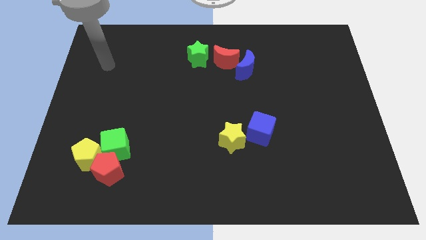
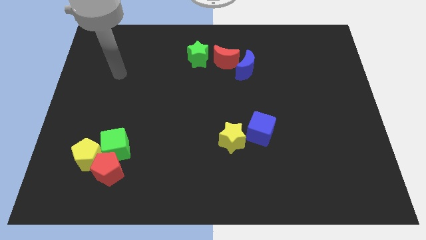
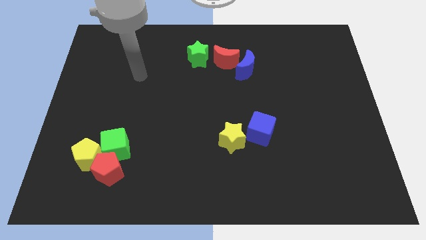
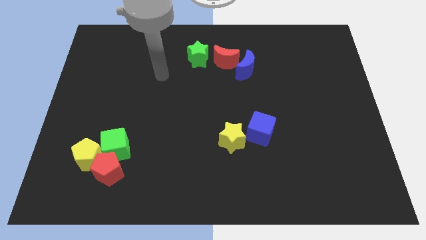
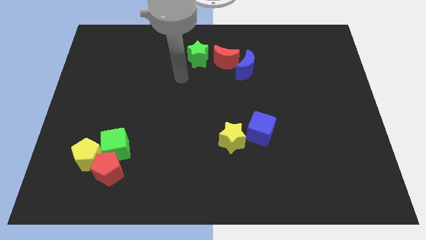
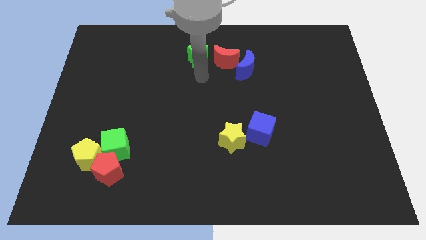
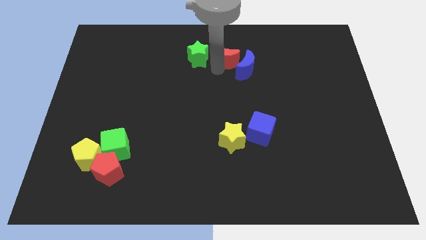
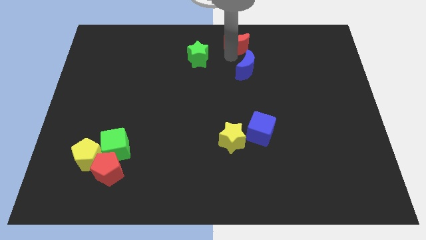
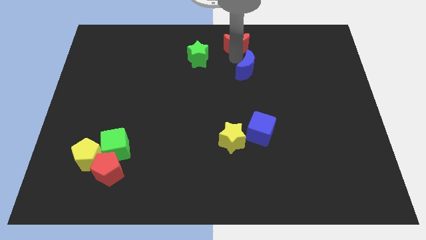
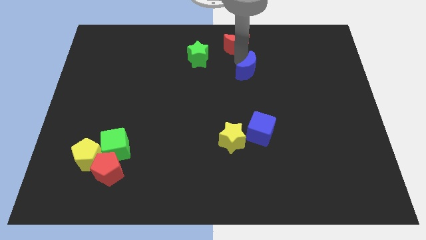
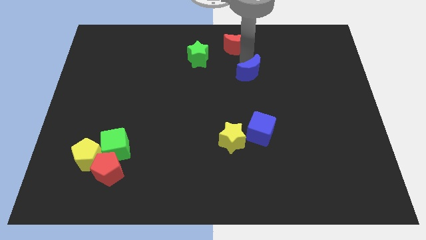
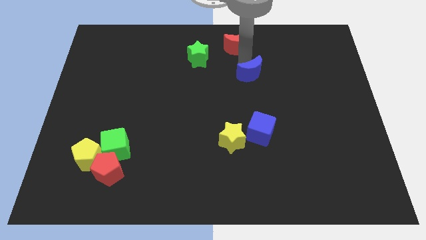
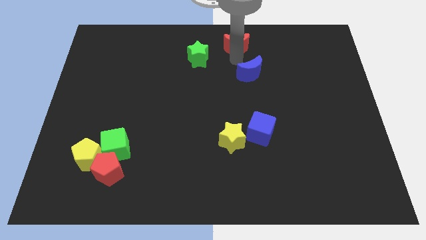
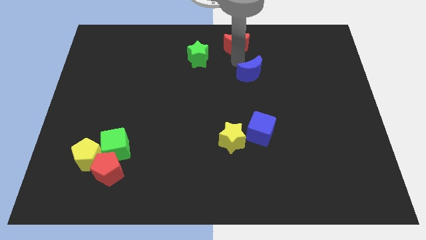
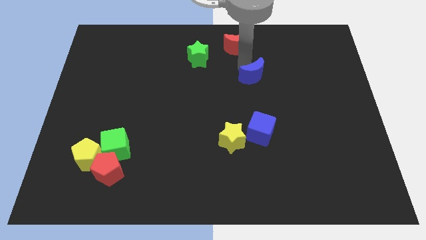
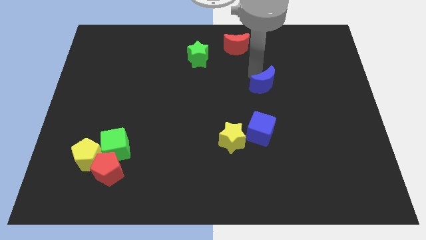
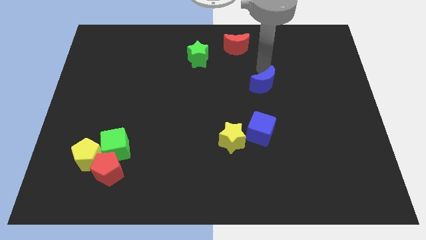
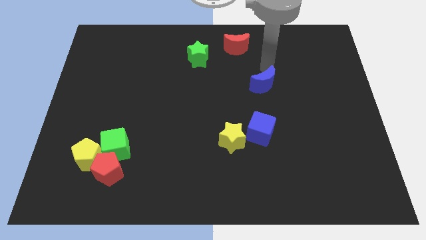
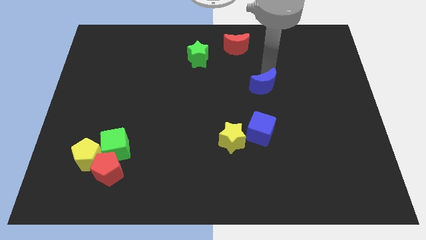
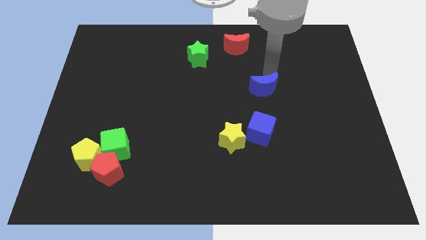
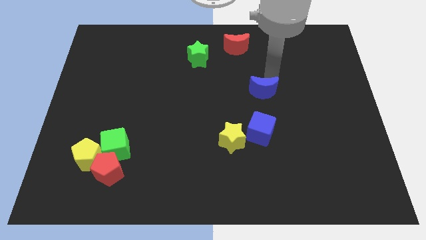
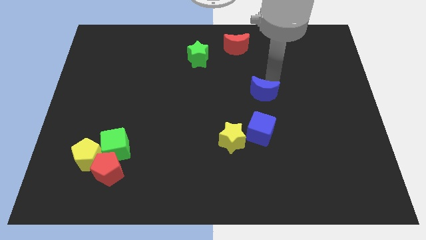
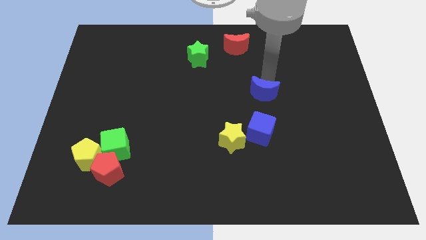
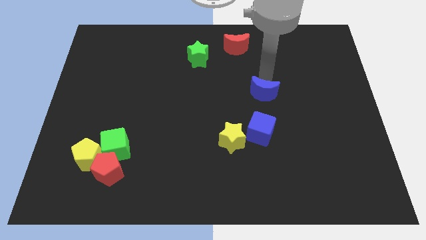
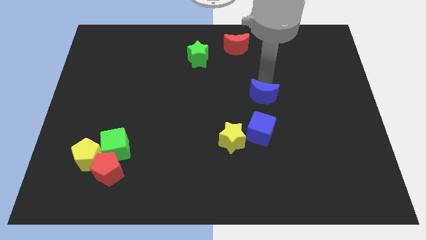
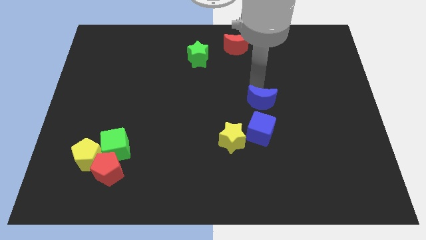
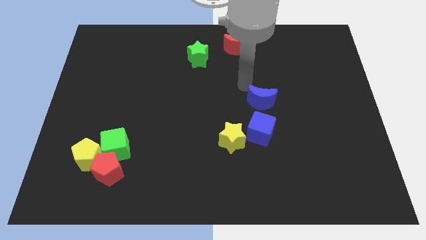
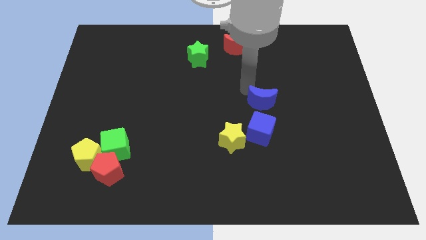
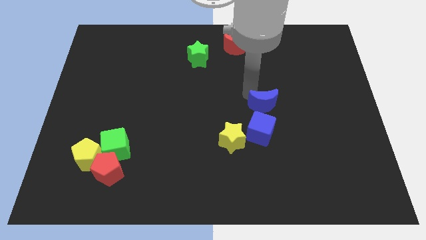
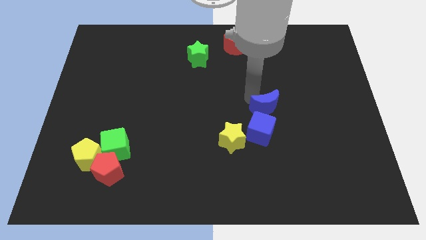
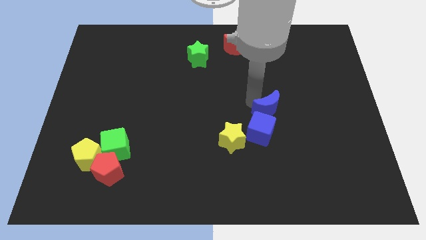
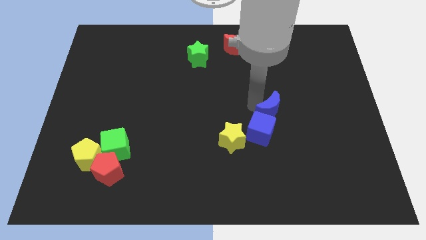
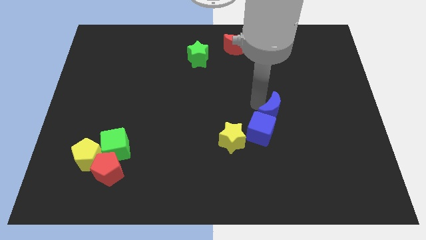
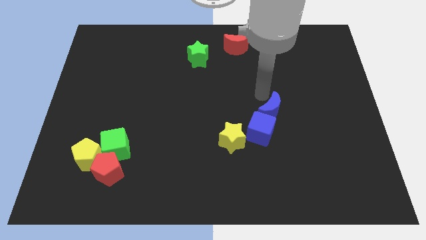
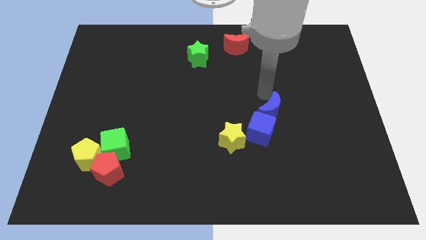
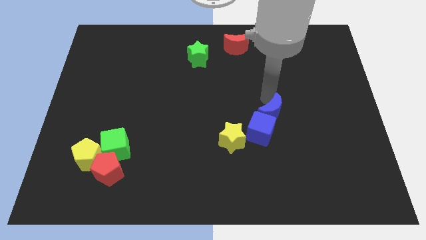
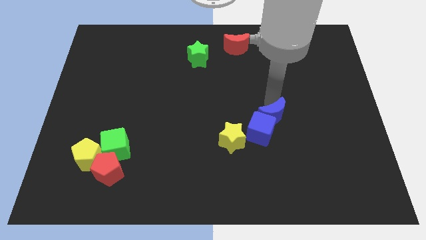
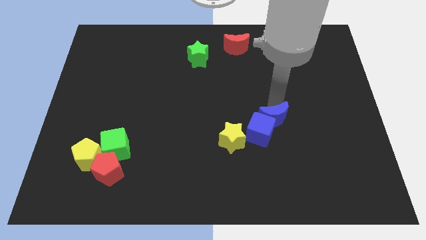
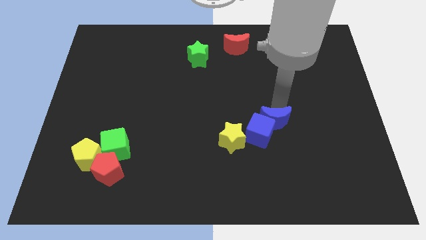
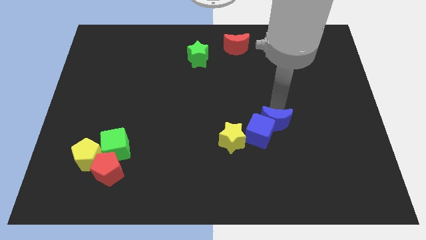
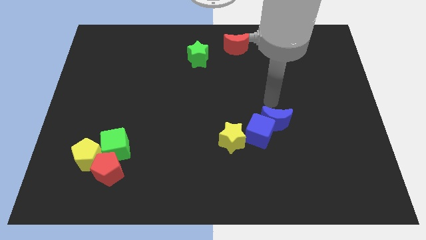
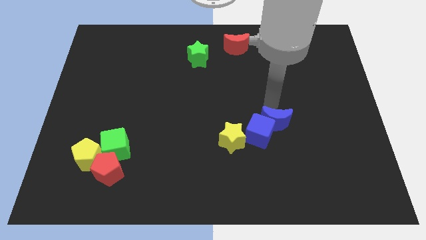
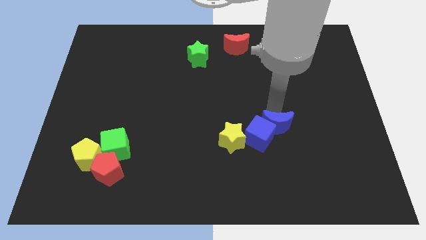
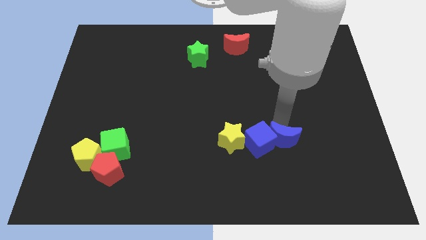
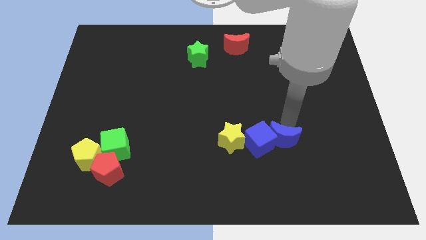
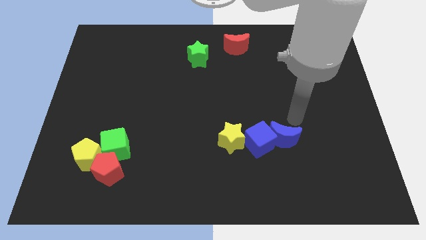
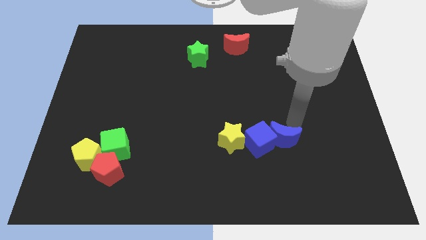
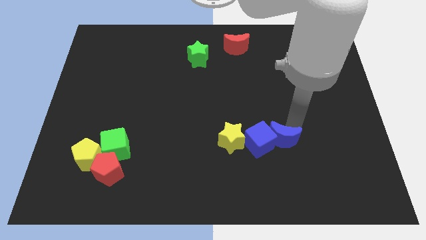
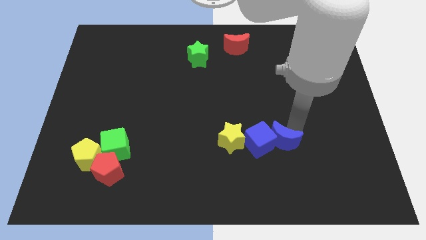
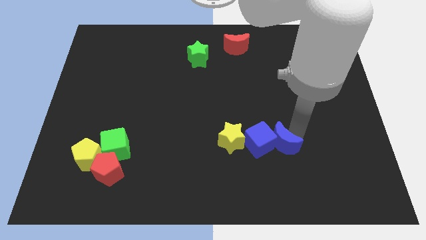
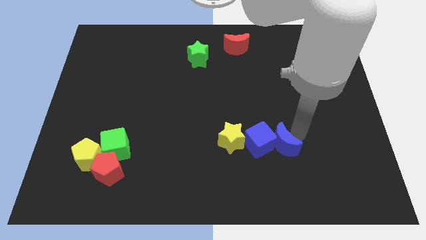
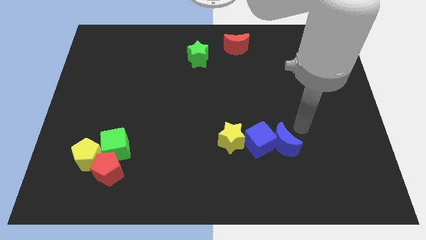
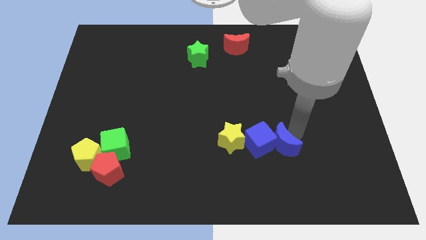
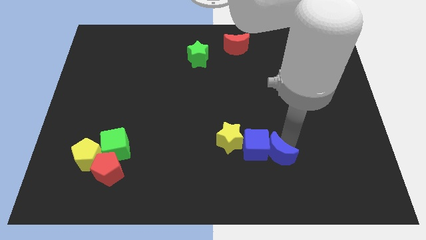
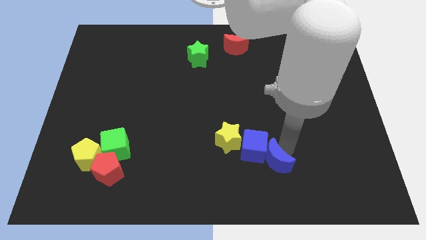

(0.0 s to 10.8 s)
push the blue moon diagonally down and to the right of the yellow star
